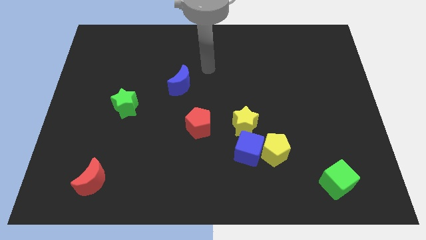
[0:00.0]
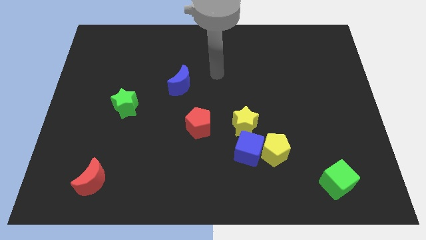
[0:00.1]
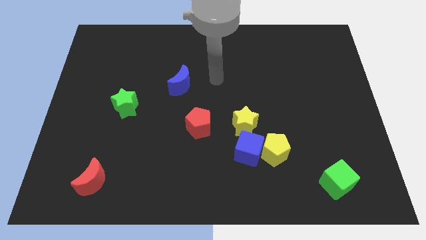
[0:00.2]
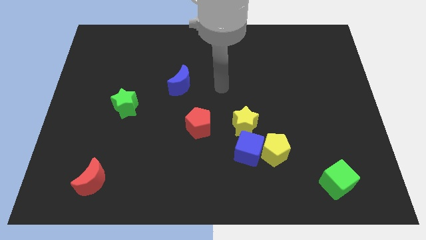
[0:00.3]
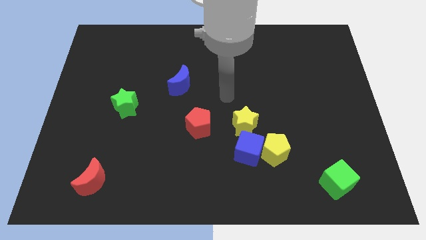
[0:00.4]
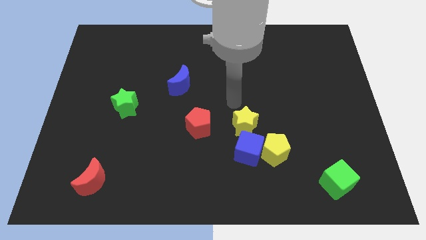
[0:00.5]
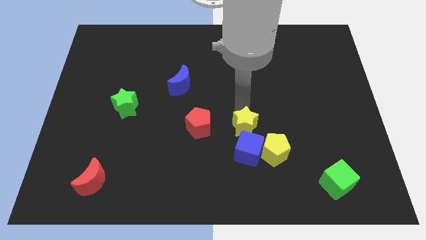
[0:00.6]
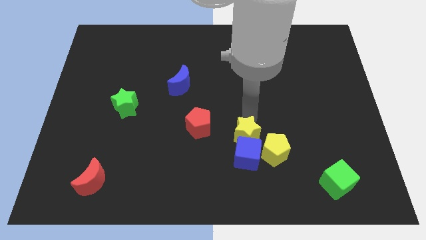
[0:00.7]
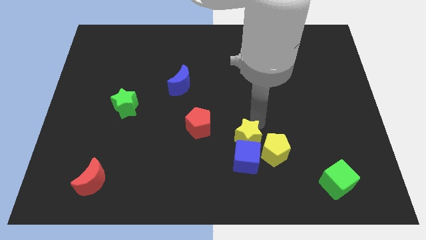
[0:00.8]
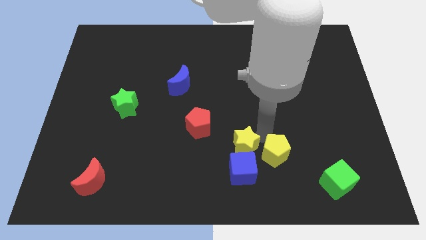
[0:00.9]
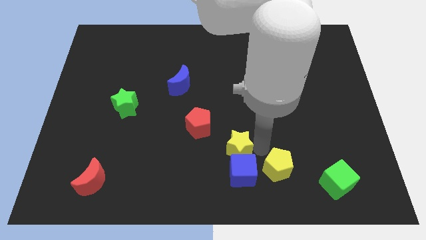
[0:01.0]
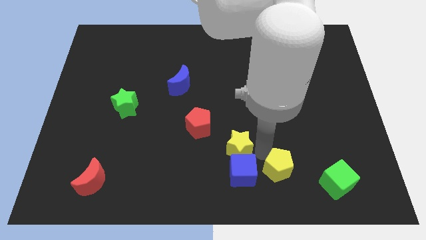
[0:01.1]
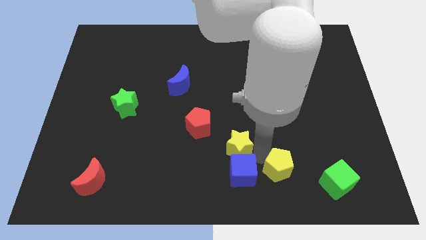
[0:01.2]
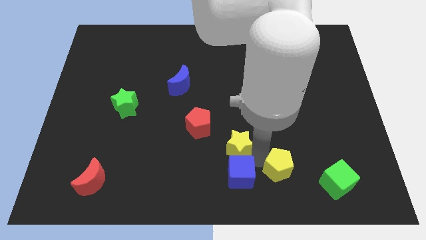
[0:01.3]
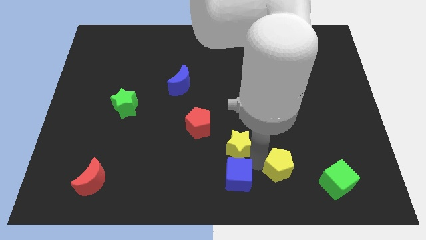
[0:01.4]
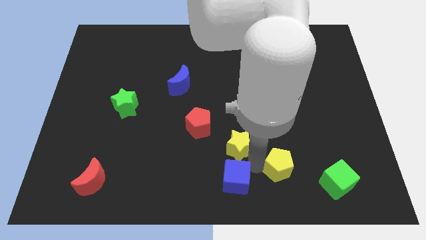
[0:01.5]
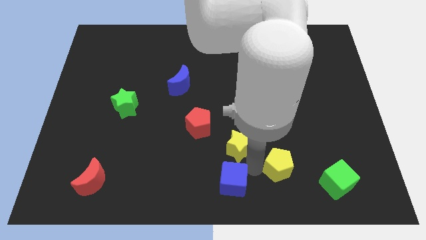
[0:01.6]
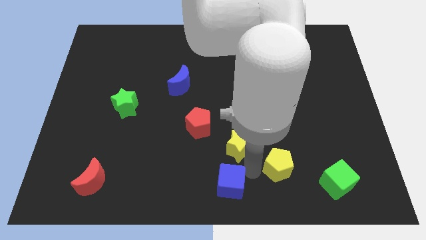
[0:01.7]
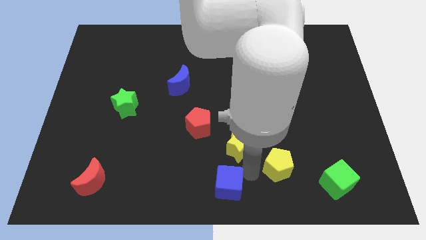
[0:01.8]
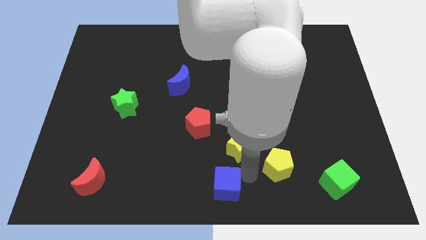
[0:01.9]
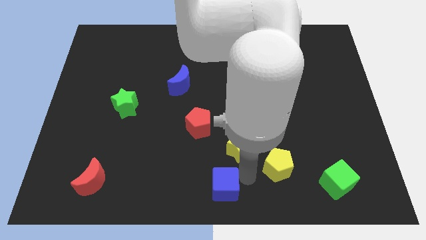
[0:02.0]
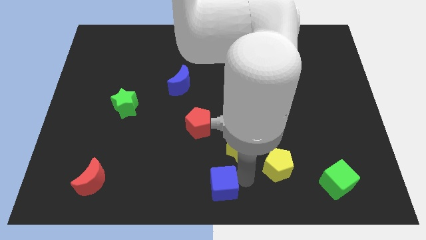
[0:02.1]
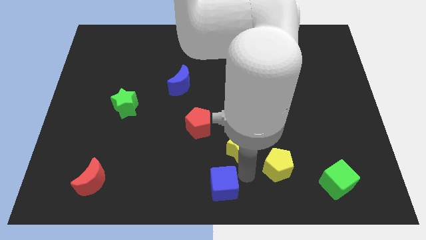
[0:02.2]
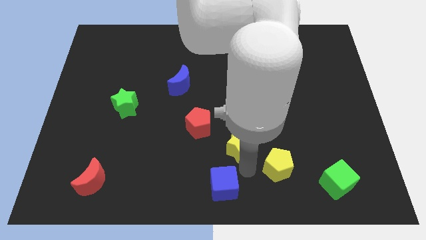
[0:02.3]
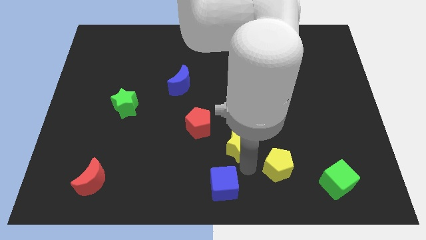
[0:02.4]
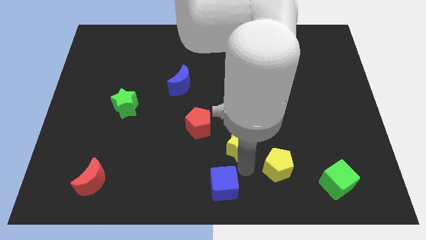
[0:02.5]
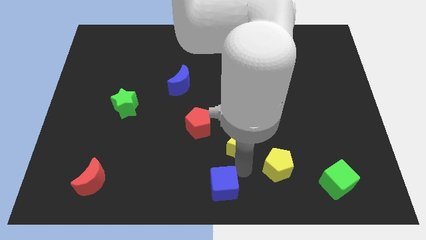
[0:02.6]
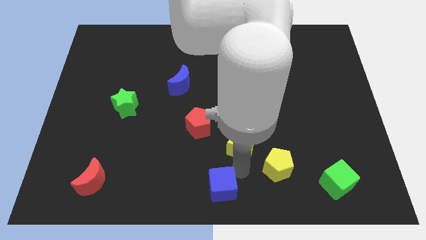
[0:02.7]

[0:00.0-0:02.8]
pull the blue cube apart from the yellow pentagon and yellow star

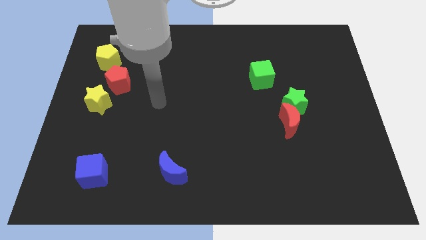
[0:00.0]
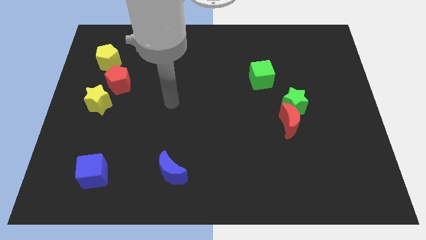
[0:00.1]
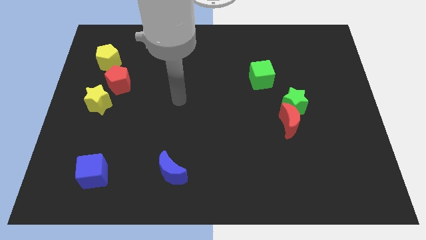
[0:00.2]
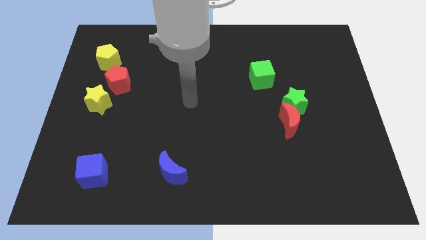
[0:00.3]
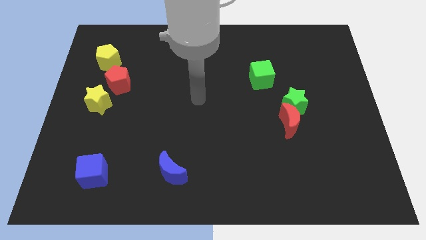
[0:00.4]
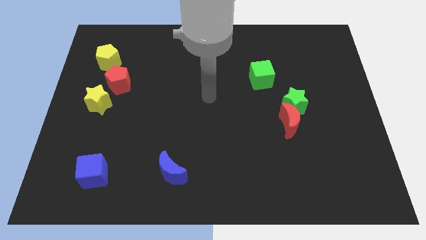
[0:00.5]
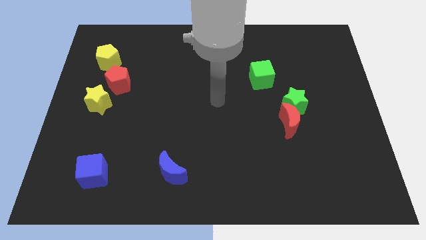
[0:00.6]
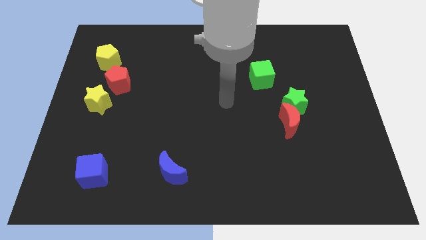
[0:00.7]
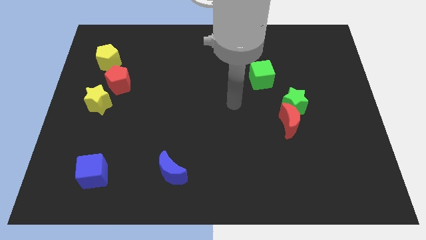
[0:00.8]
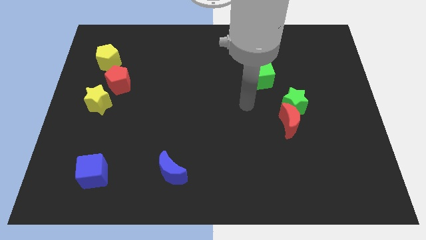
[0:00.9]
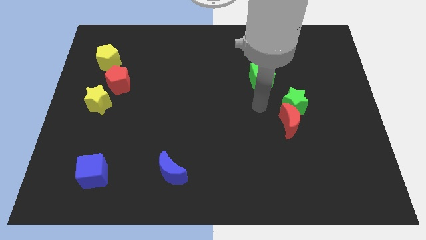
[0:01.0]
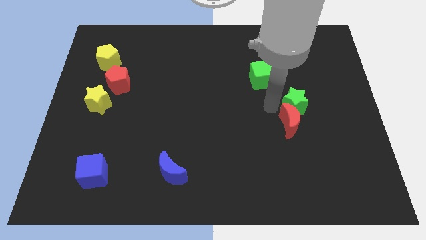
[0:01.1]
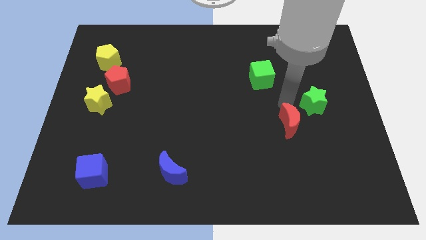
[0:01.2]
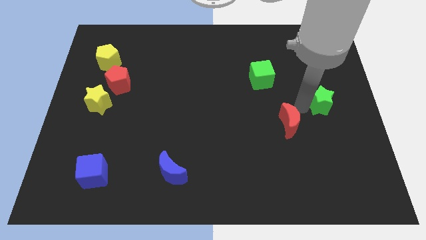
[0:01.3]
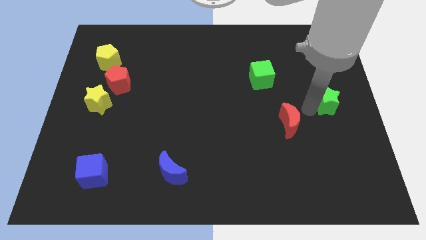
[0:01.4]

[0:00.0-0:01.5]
move the red moon away from the green star

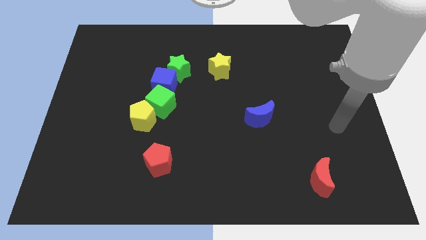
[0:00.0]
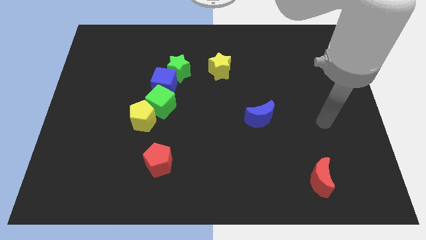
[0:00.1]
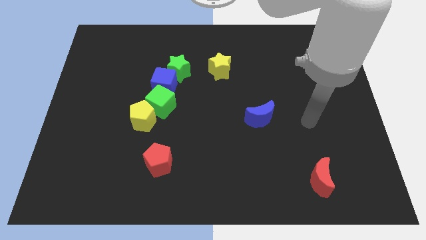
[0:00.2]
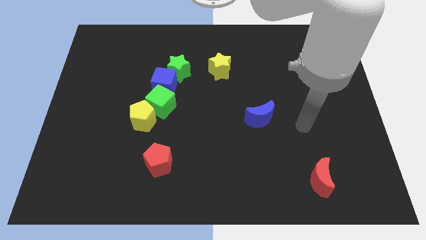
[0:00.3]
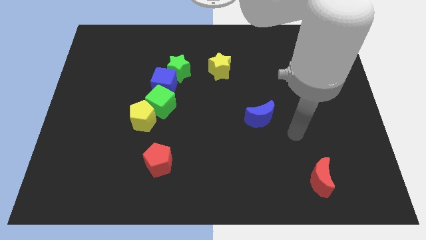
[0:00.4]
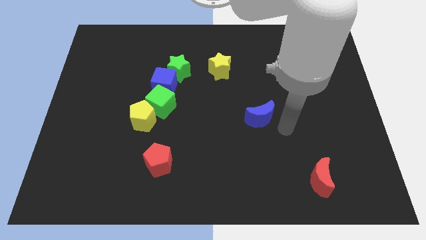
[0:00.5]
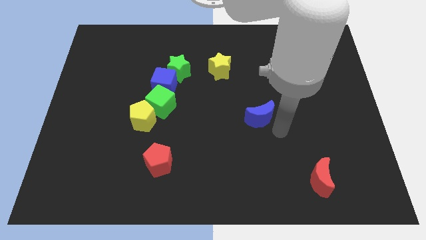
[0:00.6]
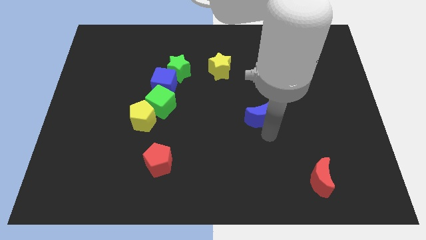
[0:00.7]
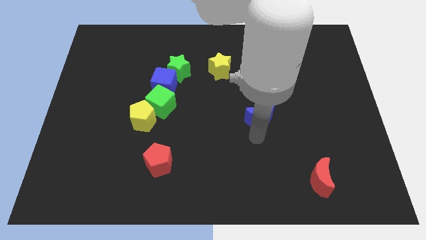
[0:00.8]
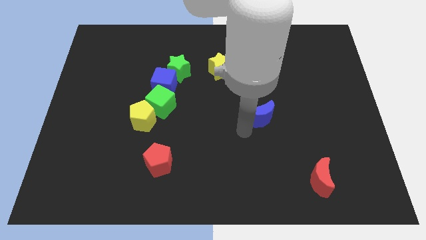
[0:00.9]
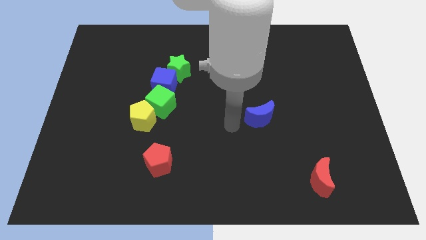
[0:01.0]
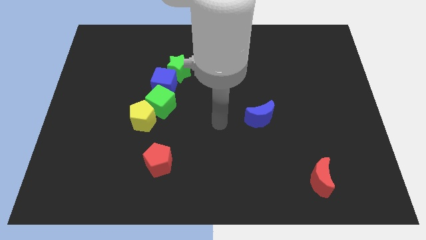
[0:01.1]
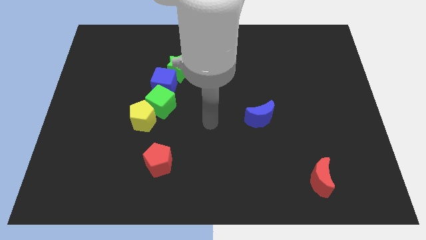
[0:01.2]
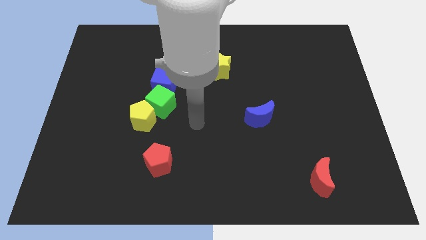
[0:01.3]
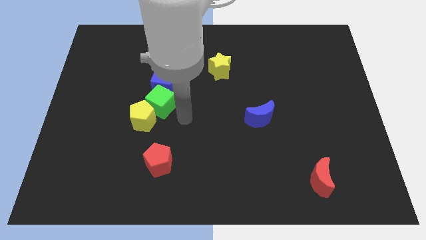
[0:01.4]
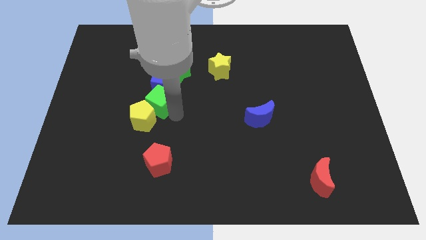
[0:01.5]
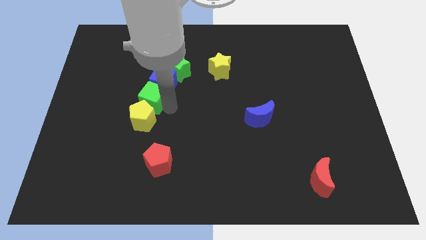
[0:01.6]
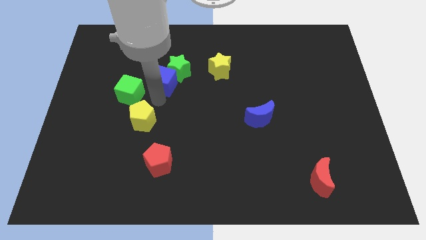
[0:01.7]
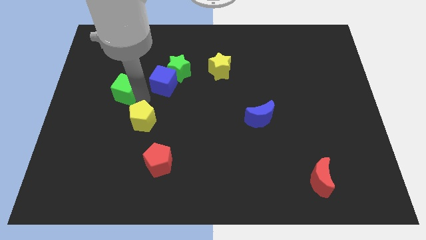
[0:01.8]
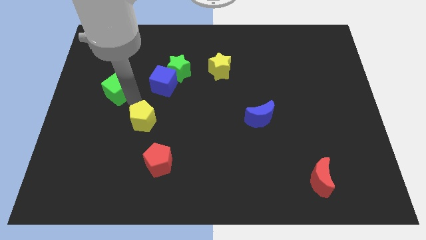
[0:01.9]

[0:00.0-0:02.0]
pull the yellow pentagon apart from the green cube

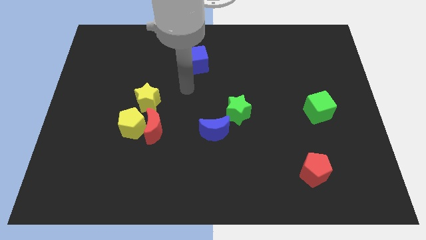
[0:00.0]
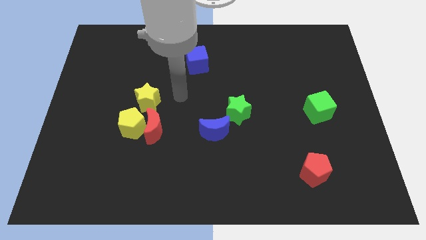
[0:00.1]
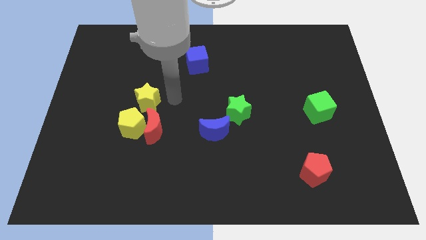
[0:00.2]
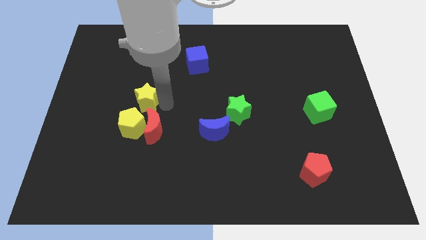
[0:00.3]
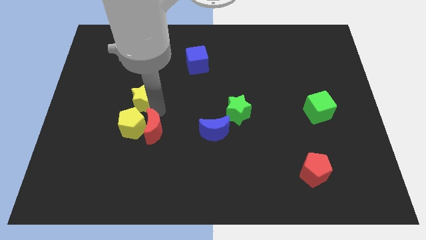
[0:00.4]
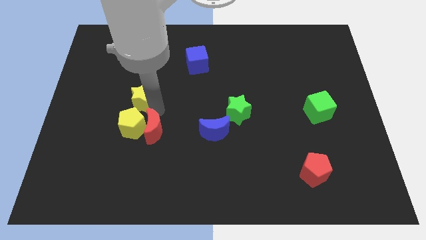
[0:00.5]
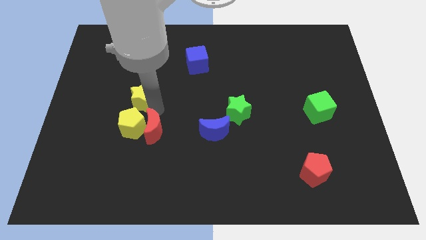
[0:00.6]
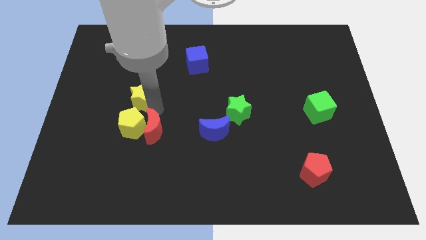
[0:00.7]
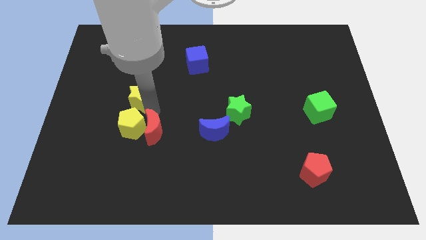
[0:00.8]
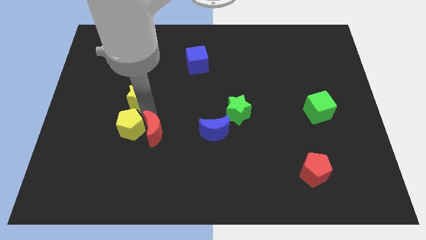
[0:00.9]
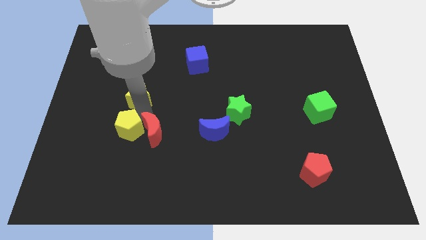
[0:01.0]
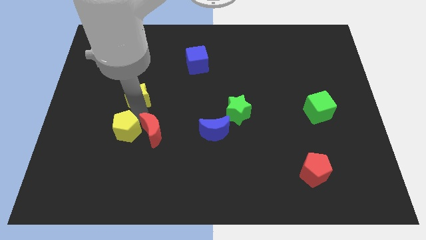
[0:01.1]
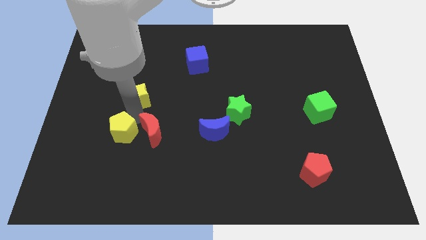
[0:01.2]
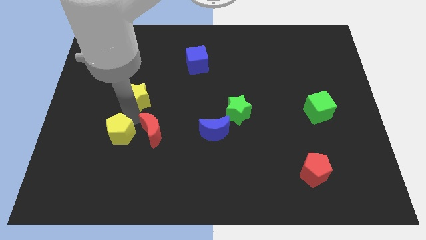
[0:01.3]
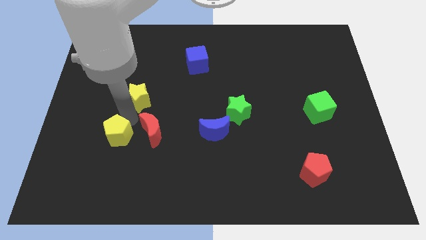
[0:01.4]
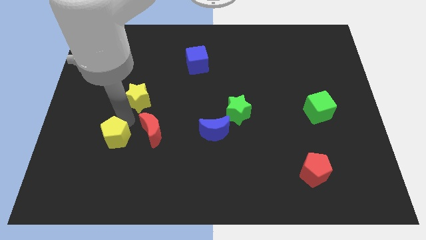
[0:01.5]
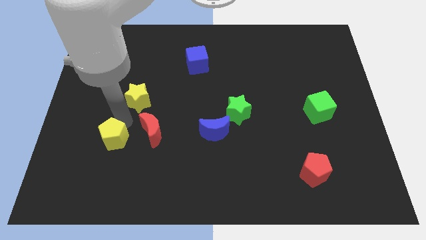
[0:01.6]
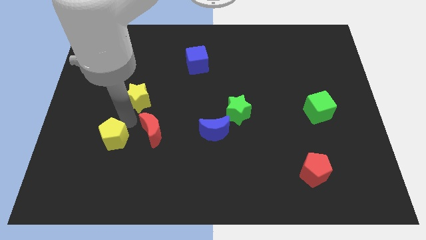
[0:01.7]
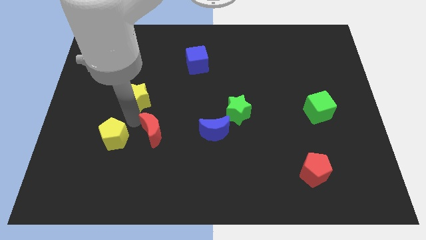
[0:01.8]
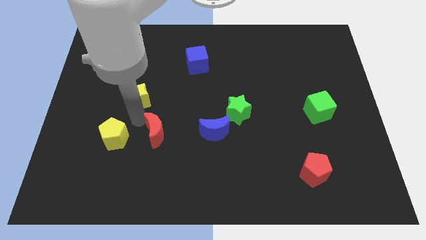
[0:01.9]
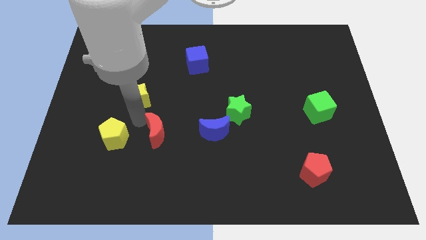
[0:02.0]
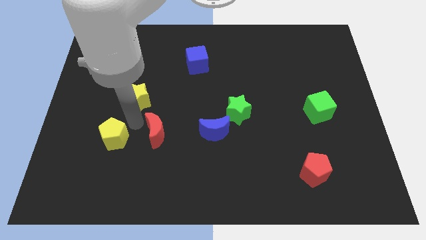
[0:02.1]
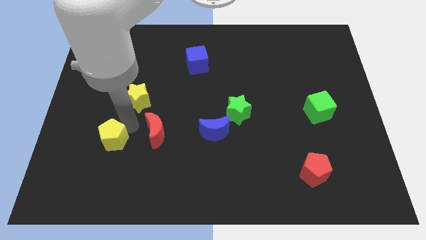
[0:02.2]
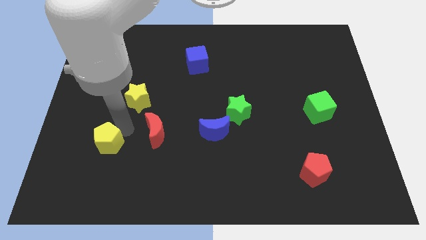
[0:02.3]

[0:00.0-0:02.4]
pull the yellow pentagon apart from the red moon and yellow star

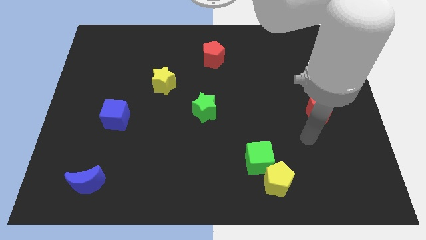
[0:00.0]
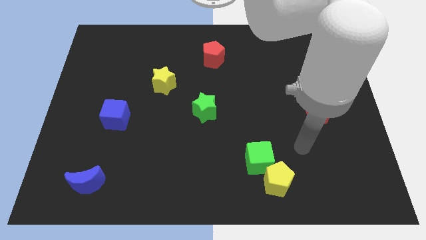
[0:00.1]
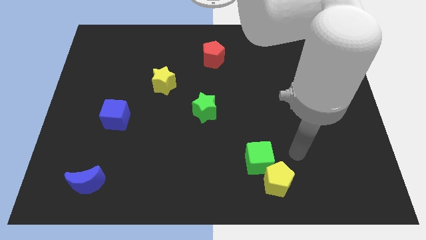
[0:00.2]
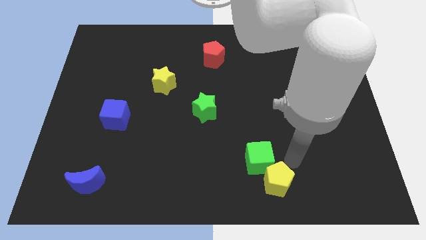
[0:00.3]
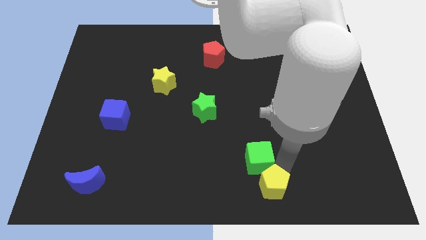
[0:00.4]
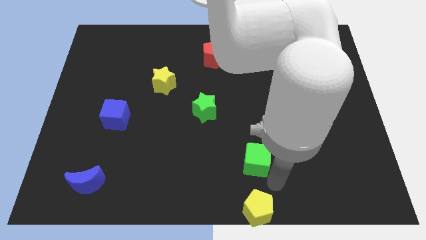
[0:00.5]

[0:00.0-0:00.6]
pull the green cube apart from the yellow pentagon

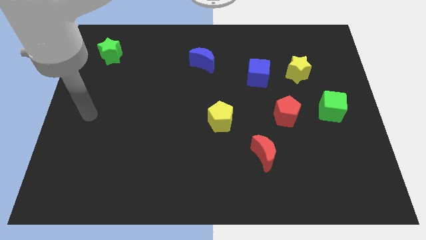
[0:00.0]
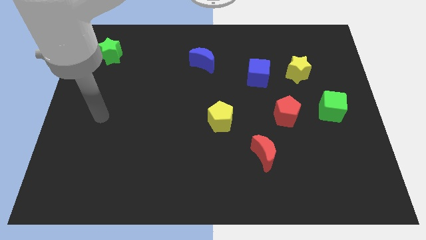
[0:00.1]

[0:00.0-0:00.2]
move the blue cube away from the yellow star
